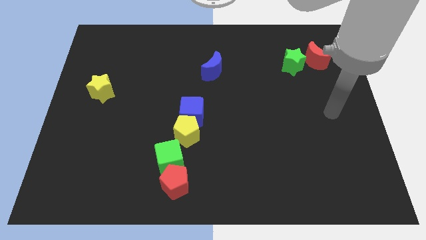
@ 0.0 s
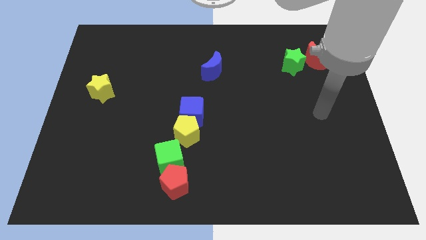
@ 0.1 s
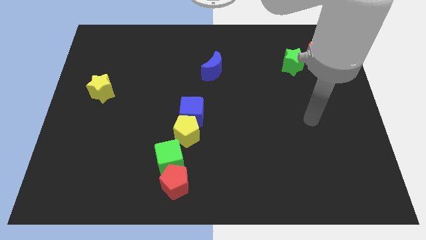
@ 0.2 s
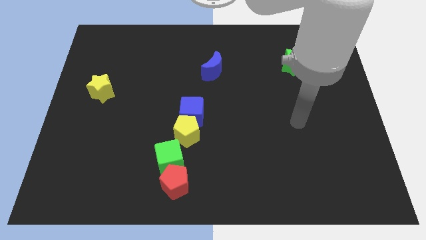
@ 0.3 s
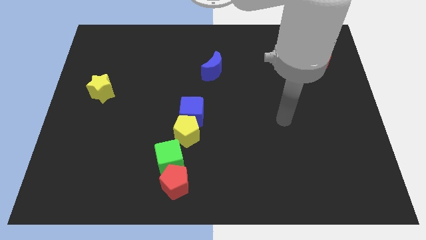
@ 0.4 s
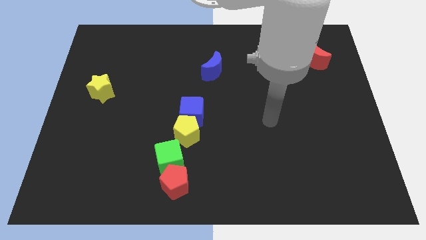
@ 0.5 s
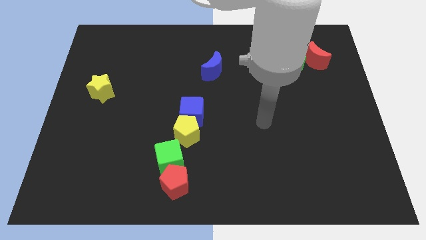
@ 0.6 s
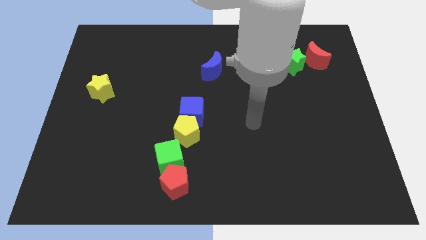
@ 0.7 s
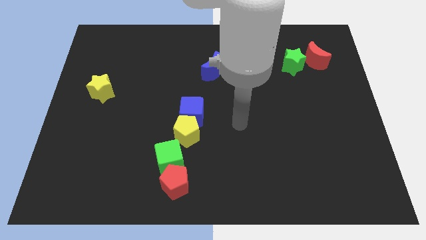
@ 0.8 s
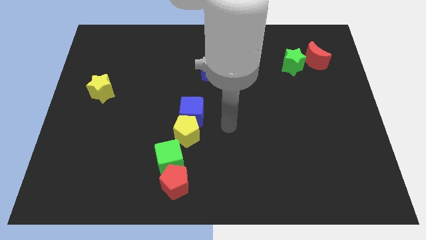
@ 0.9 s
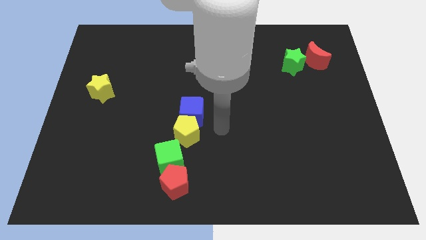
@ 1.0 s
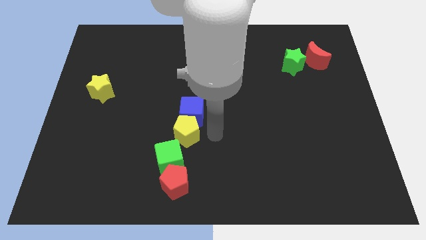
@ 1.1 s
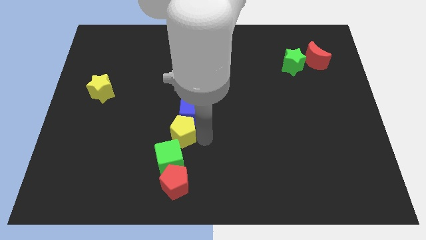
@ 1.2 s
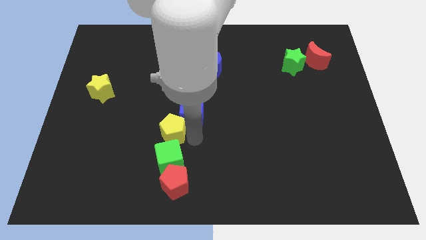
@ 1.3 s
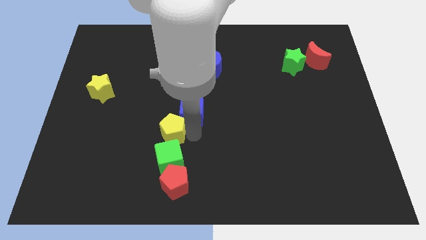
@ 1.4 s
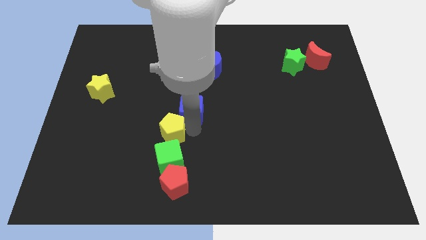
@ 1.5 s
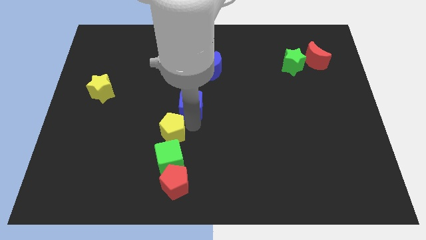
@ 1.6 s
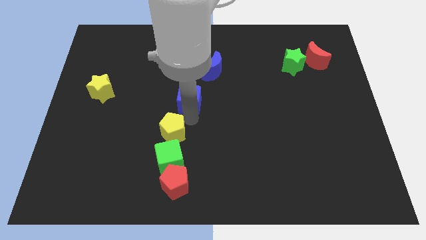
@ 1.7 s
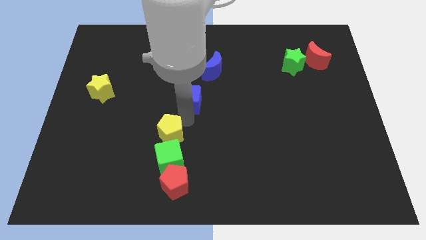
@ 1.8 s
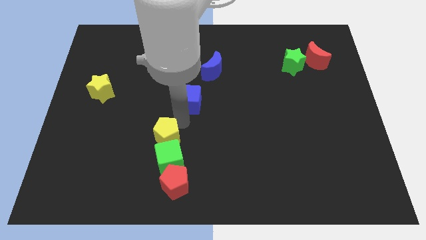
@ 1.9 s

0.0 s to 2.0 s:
pull the blue cube apart from the yellow pentagon

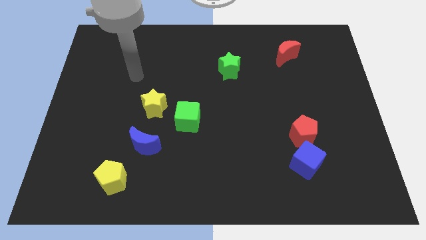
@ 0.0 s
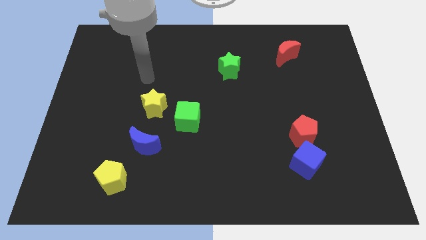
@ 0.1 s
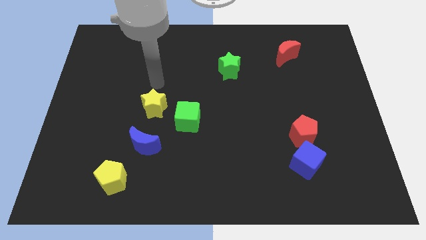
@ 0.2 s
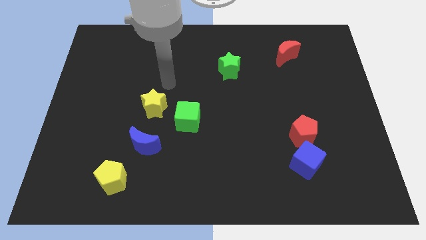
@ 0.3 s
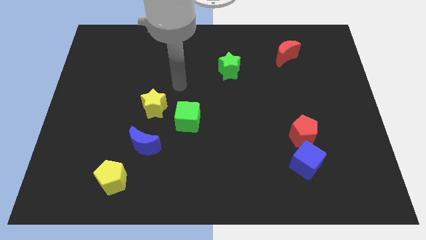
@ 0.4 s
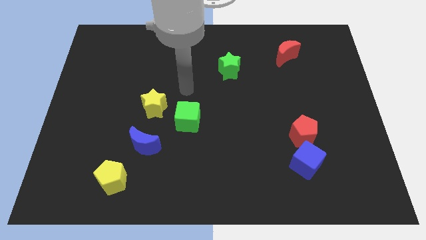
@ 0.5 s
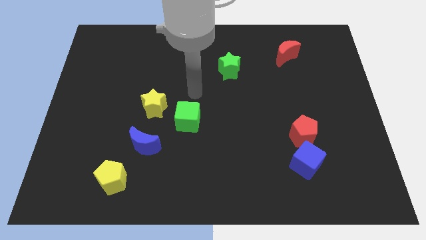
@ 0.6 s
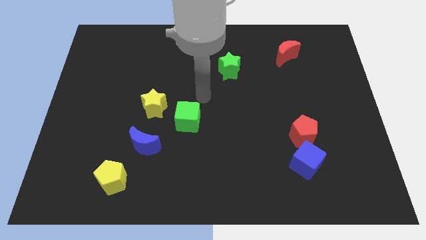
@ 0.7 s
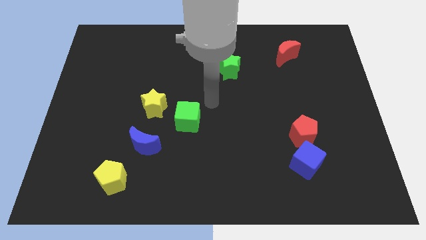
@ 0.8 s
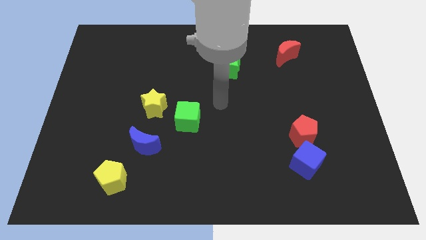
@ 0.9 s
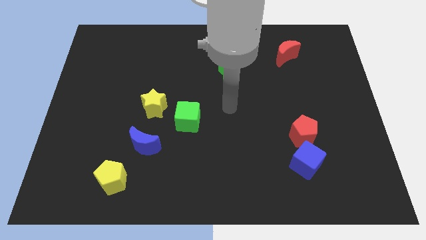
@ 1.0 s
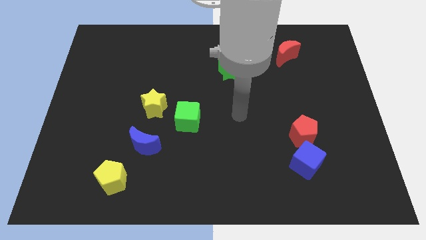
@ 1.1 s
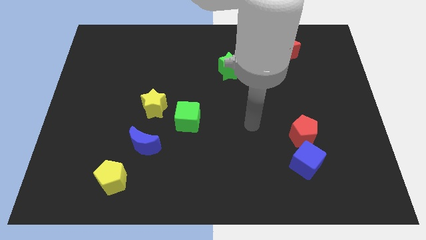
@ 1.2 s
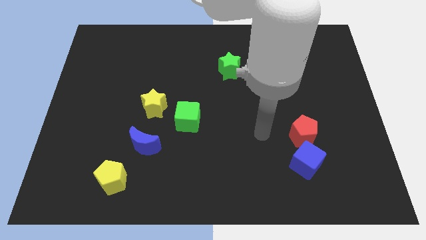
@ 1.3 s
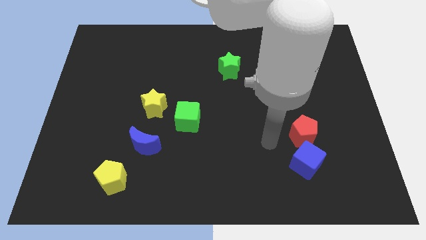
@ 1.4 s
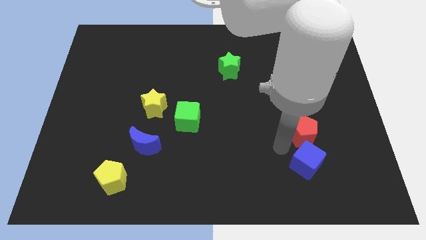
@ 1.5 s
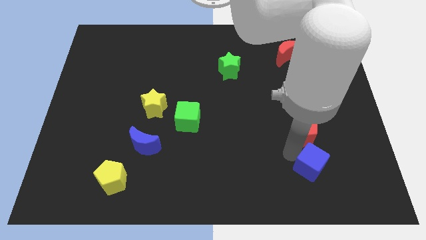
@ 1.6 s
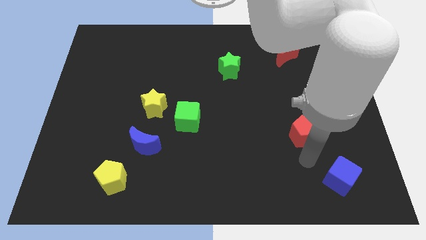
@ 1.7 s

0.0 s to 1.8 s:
pull the red pentagon apart from the blue cube

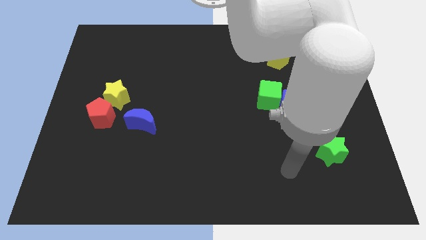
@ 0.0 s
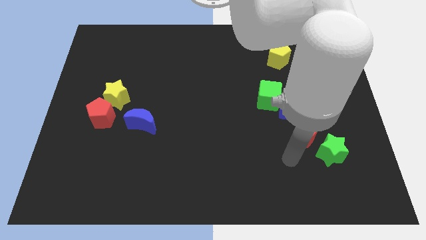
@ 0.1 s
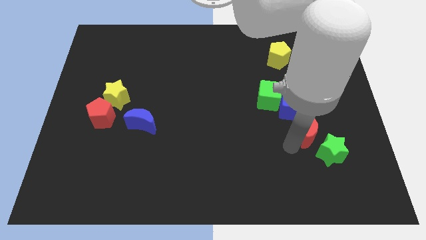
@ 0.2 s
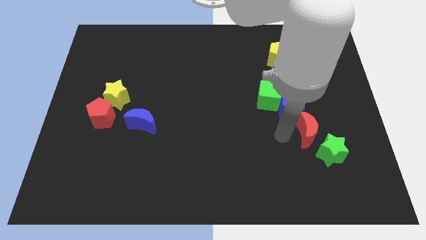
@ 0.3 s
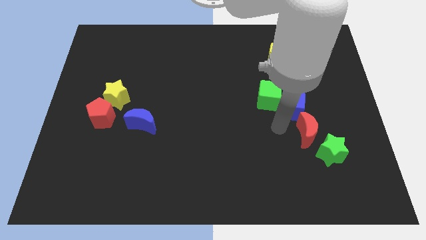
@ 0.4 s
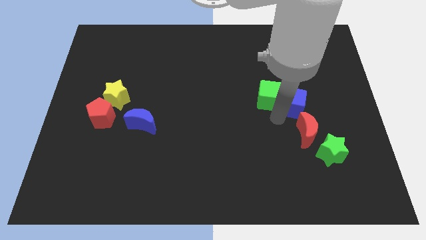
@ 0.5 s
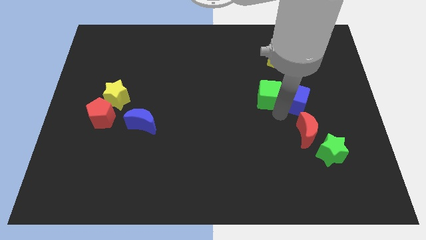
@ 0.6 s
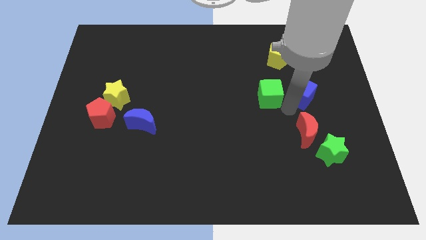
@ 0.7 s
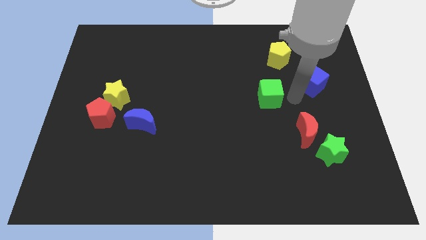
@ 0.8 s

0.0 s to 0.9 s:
move the green cube away from the blue cube

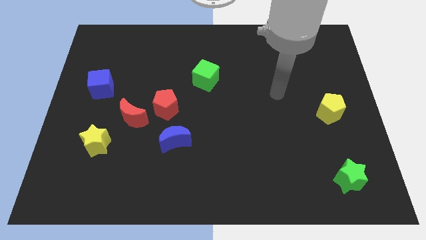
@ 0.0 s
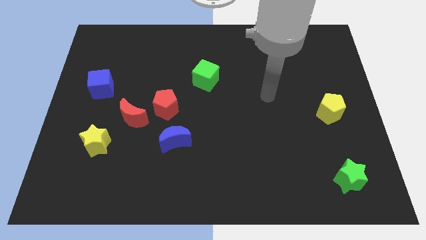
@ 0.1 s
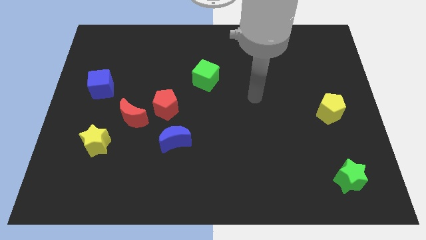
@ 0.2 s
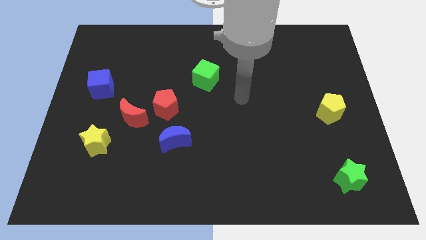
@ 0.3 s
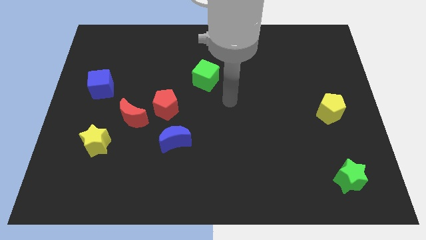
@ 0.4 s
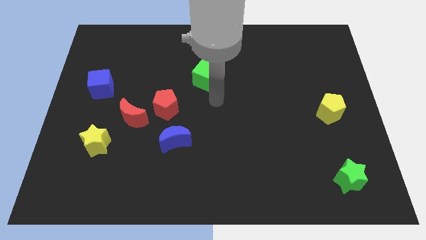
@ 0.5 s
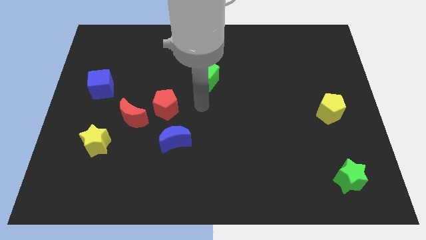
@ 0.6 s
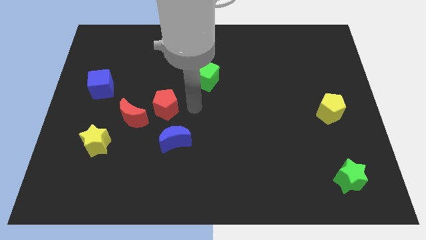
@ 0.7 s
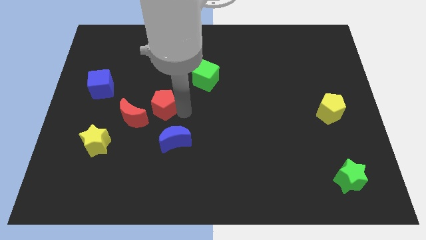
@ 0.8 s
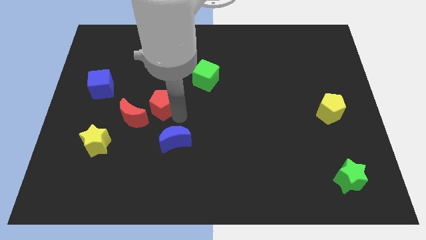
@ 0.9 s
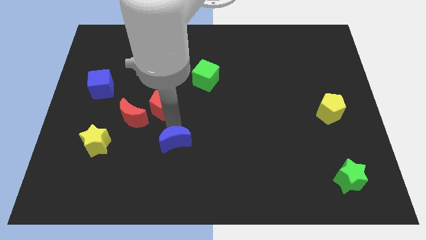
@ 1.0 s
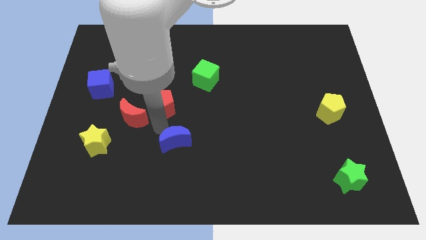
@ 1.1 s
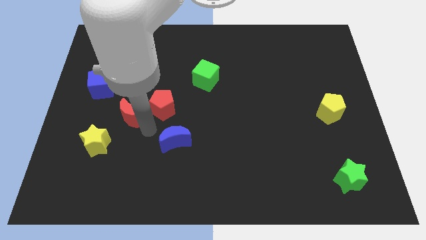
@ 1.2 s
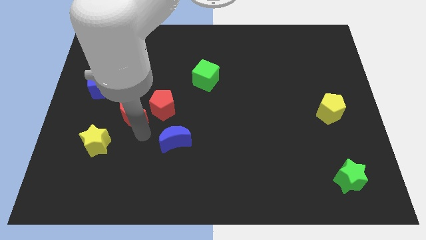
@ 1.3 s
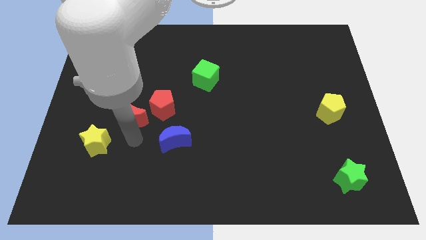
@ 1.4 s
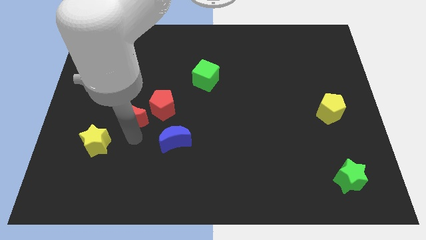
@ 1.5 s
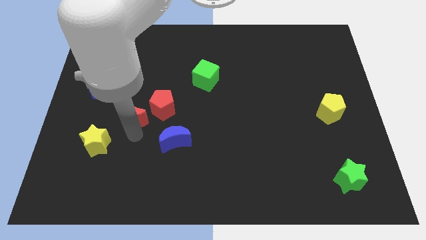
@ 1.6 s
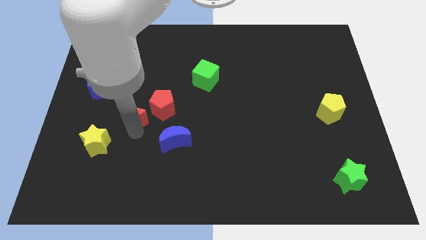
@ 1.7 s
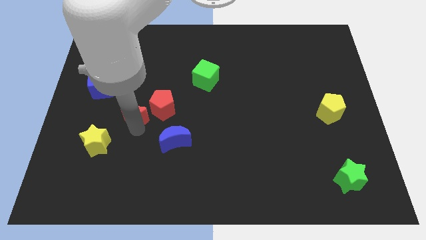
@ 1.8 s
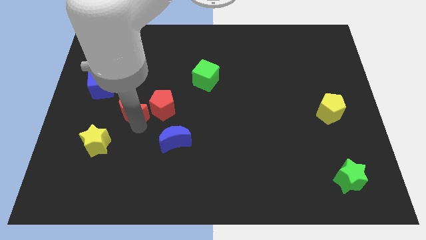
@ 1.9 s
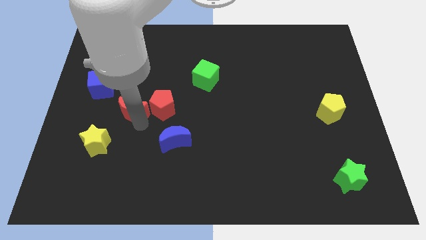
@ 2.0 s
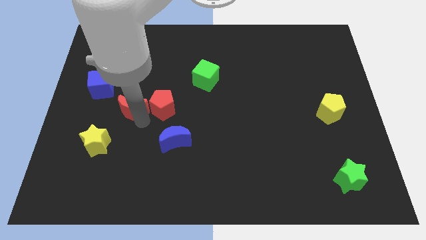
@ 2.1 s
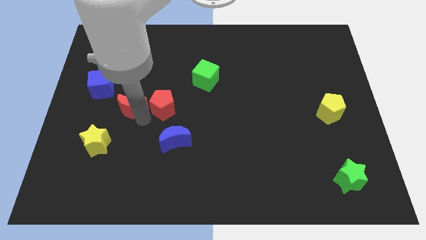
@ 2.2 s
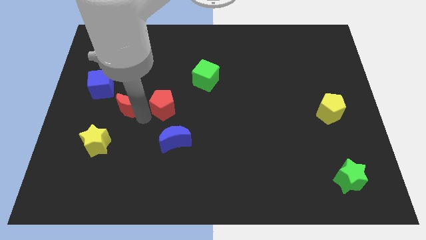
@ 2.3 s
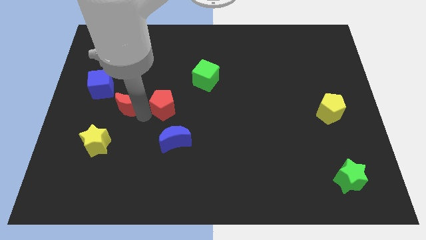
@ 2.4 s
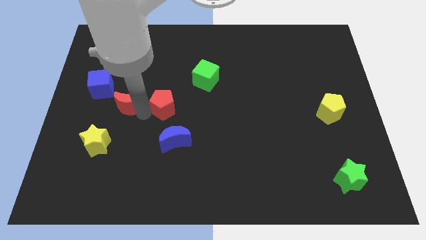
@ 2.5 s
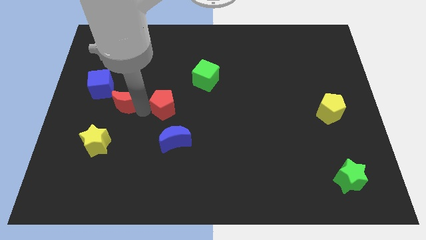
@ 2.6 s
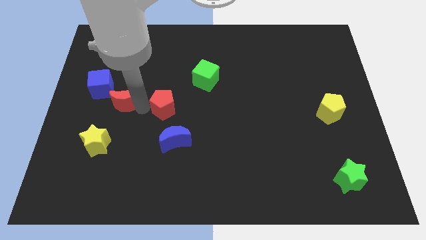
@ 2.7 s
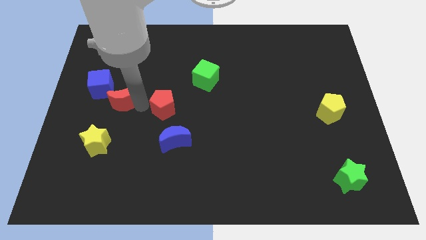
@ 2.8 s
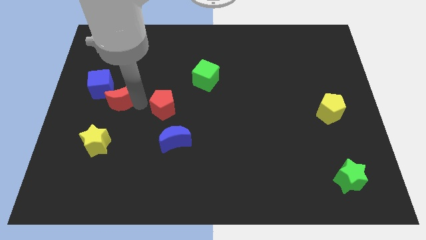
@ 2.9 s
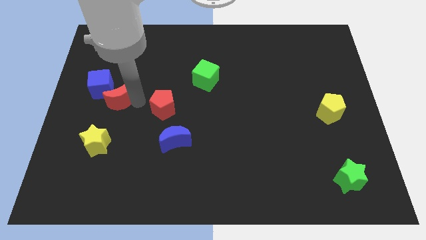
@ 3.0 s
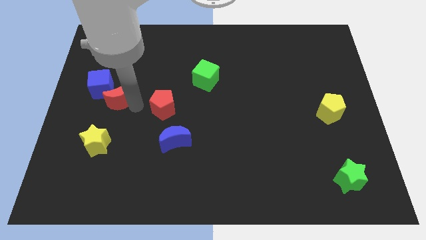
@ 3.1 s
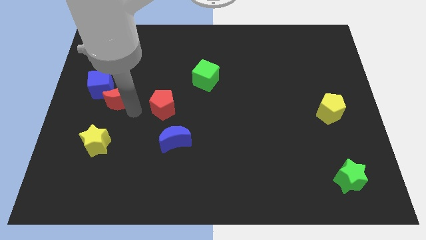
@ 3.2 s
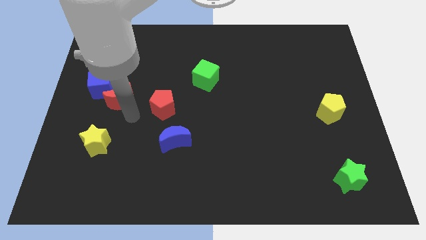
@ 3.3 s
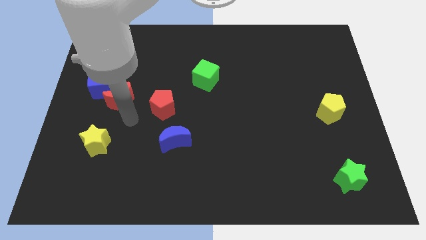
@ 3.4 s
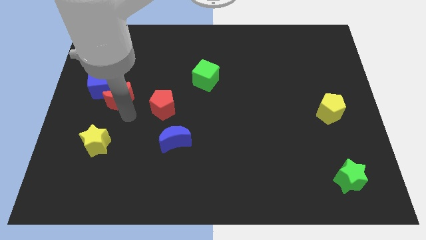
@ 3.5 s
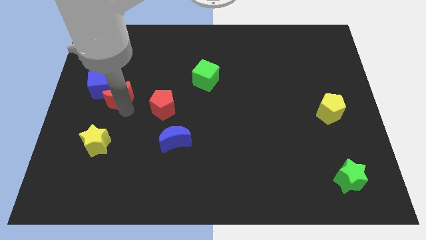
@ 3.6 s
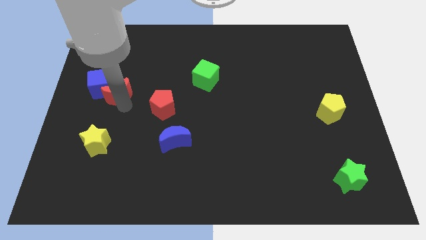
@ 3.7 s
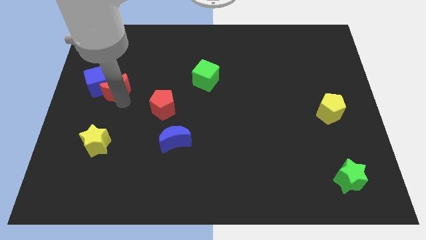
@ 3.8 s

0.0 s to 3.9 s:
move the red moon away from the red pentagon and yellow star

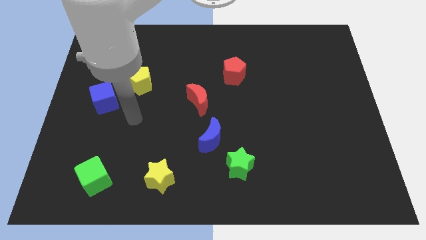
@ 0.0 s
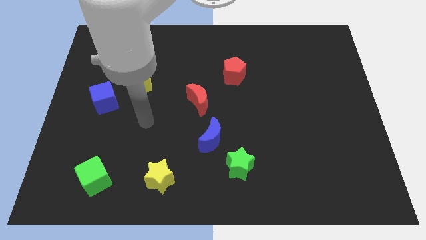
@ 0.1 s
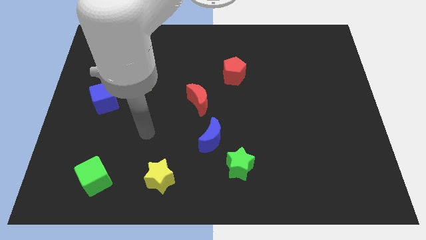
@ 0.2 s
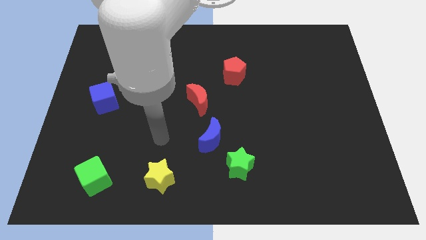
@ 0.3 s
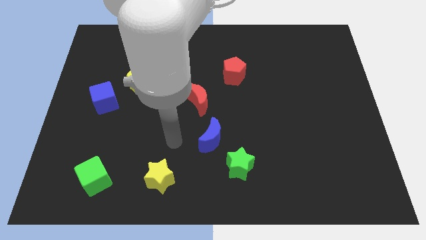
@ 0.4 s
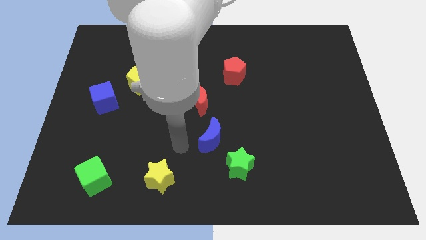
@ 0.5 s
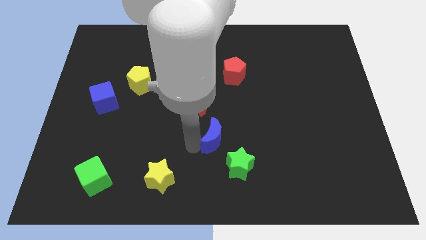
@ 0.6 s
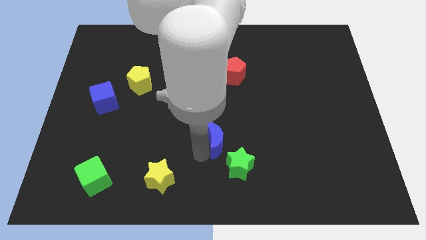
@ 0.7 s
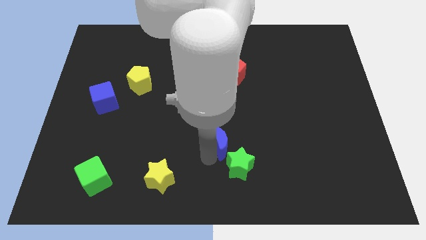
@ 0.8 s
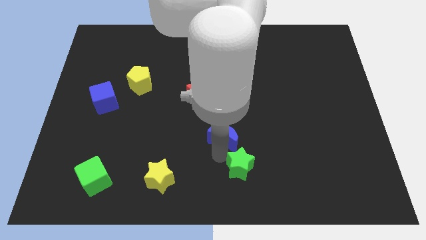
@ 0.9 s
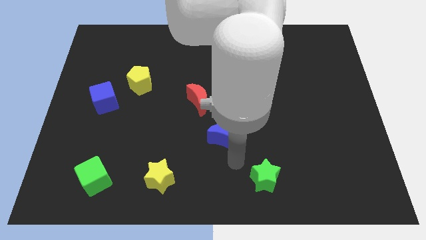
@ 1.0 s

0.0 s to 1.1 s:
separate the blue moon from the green star
